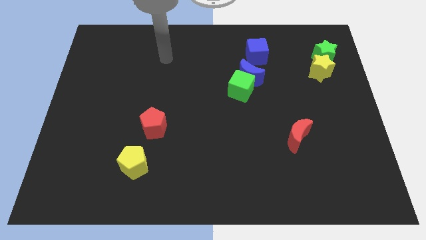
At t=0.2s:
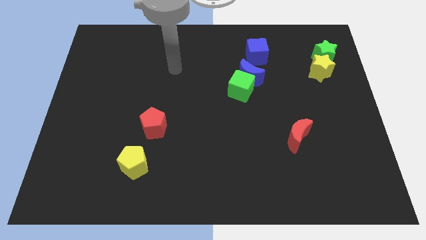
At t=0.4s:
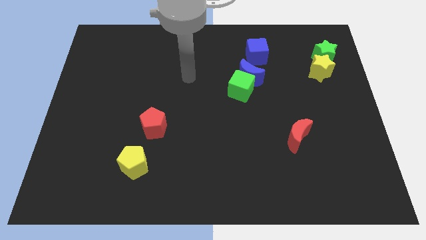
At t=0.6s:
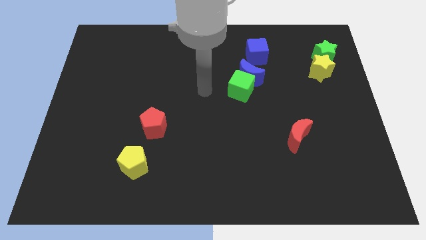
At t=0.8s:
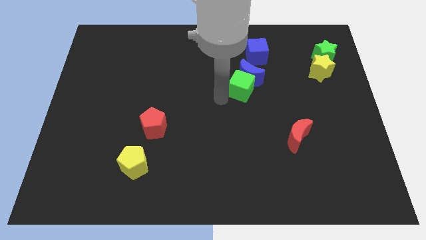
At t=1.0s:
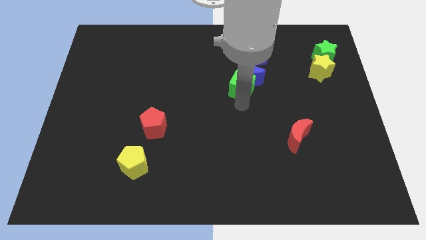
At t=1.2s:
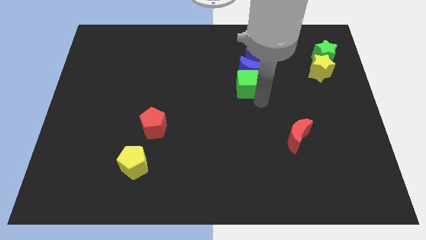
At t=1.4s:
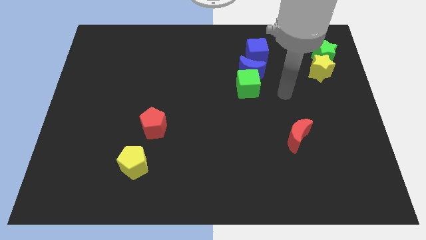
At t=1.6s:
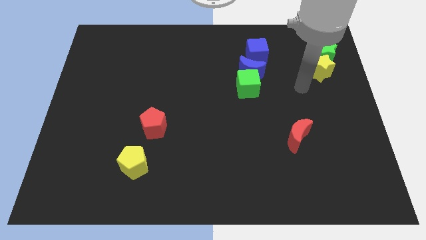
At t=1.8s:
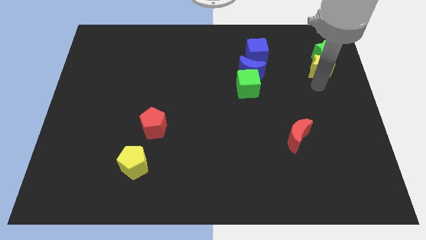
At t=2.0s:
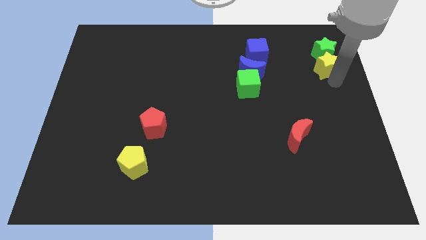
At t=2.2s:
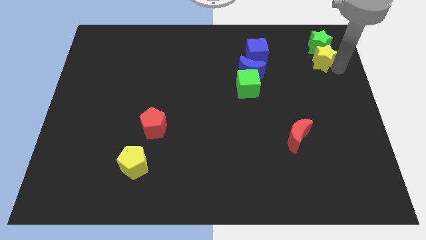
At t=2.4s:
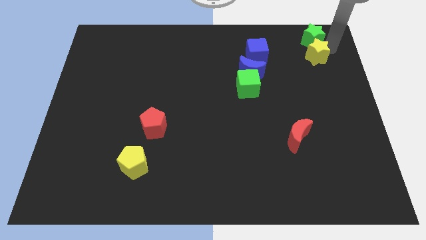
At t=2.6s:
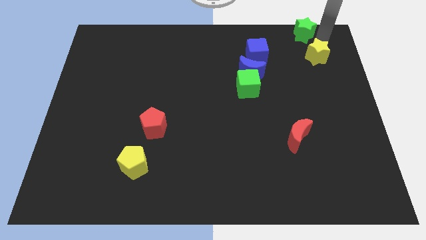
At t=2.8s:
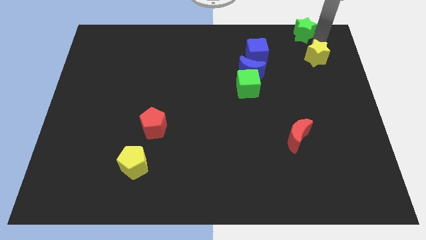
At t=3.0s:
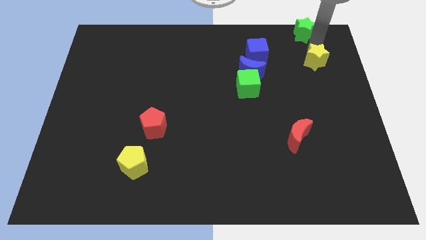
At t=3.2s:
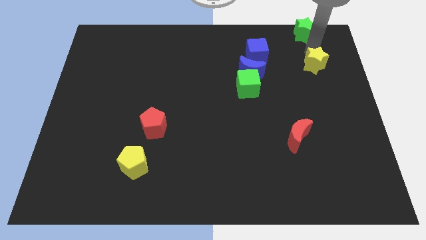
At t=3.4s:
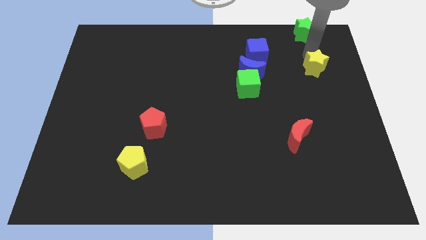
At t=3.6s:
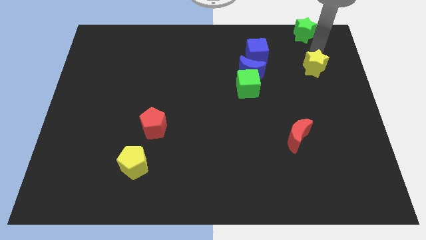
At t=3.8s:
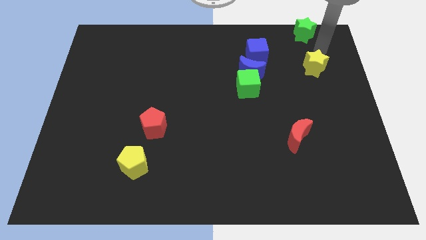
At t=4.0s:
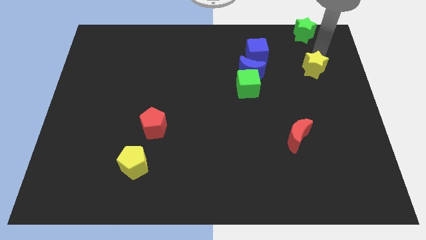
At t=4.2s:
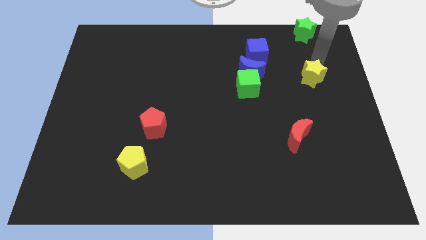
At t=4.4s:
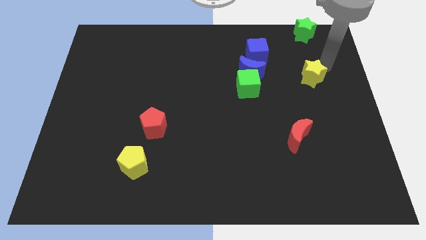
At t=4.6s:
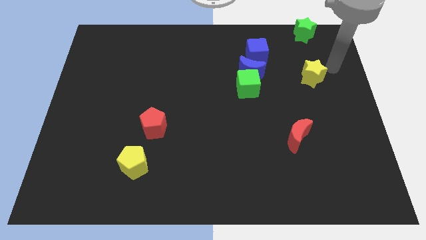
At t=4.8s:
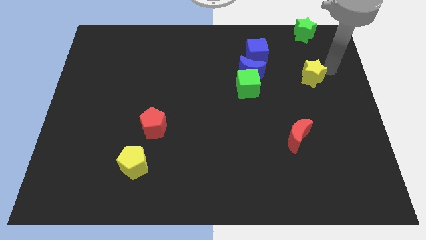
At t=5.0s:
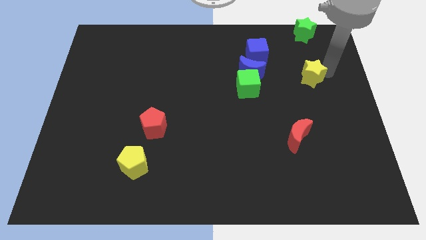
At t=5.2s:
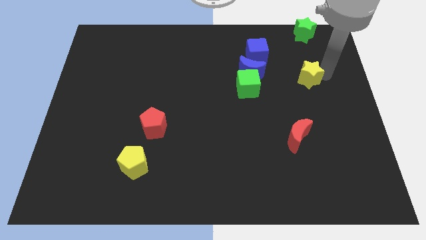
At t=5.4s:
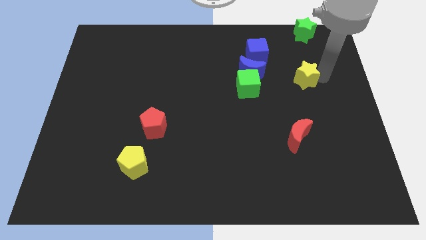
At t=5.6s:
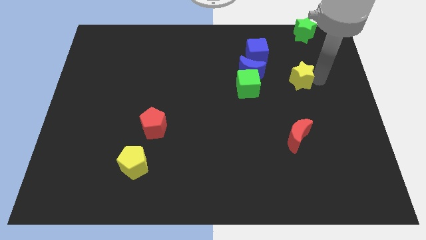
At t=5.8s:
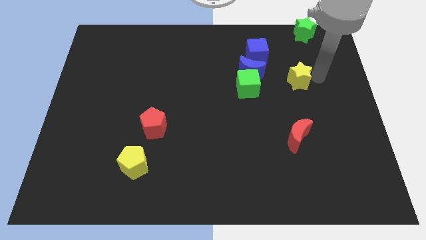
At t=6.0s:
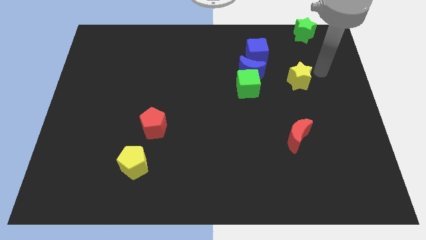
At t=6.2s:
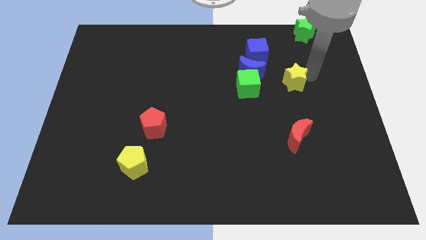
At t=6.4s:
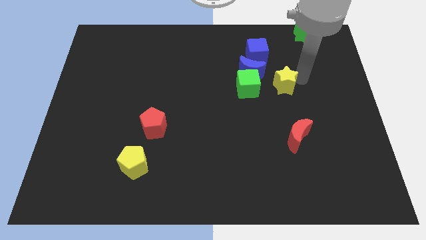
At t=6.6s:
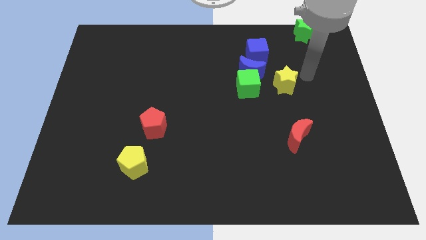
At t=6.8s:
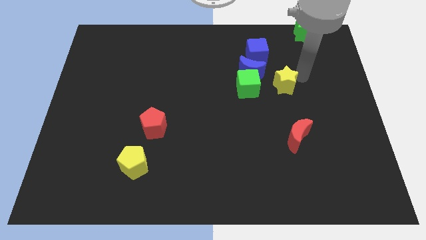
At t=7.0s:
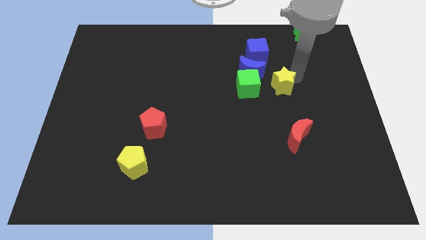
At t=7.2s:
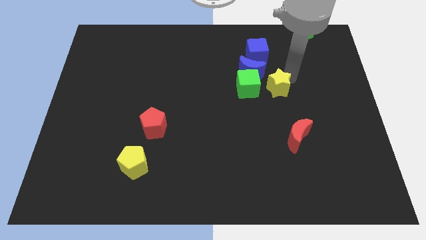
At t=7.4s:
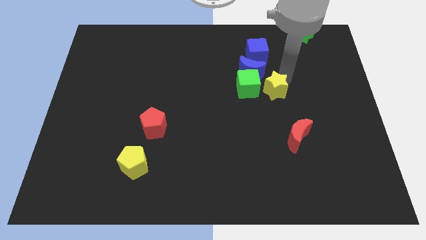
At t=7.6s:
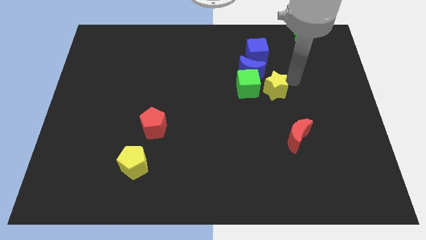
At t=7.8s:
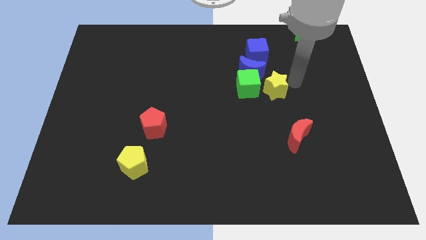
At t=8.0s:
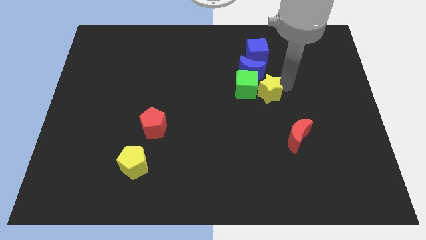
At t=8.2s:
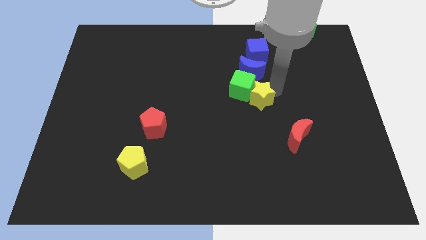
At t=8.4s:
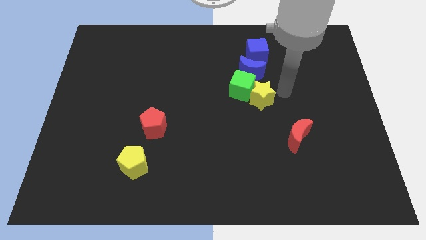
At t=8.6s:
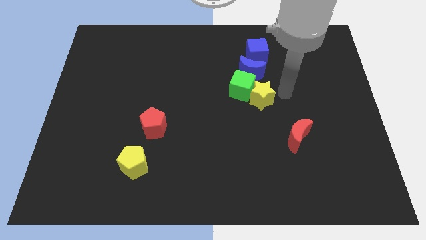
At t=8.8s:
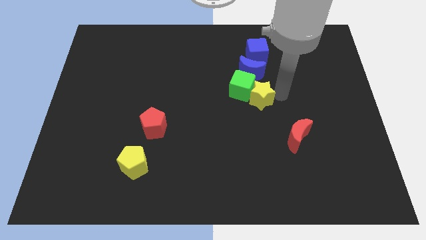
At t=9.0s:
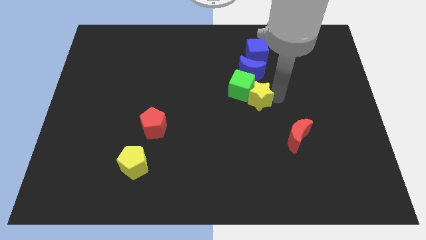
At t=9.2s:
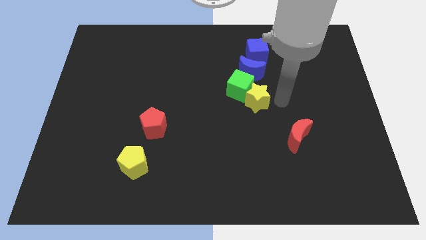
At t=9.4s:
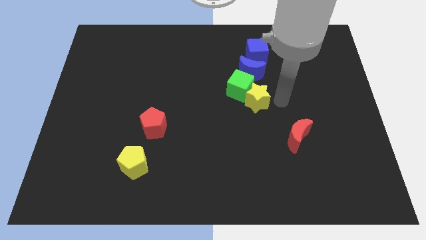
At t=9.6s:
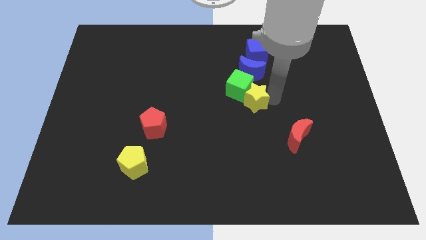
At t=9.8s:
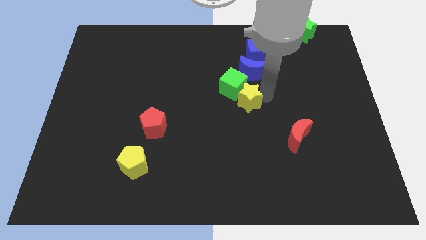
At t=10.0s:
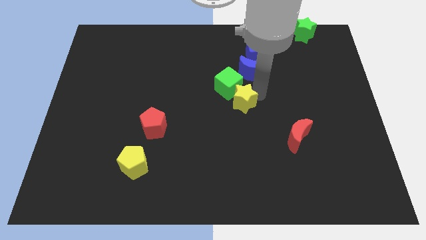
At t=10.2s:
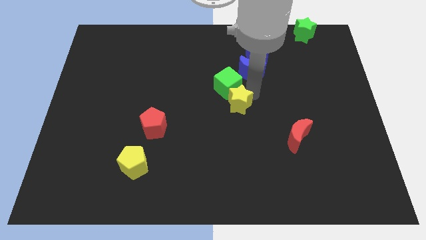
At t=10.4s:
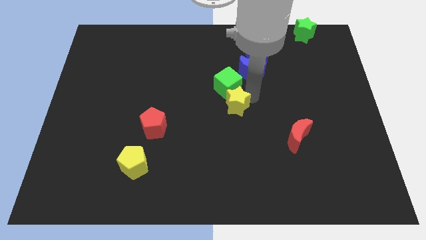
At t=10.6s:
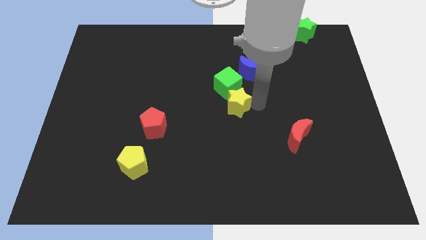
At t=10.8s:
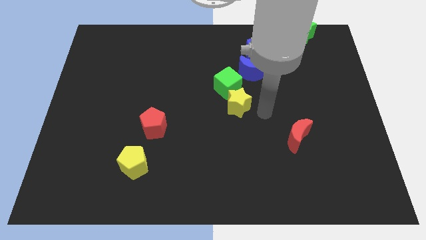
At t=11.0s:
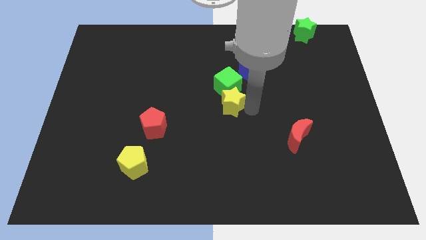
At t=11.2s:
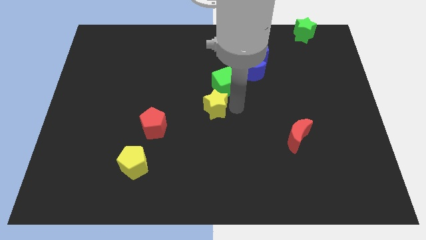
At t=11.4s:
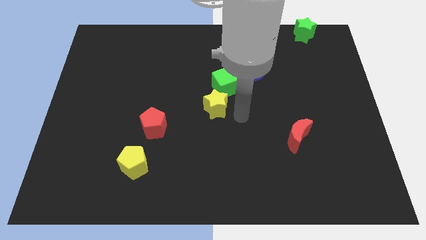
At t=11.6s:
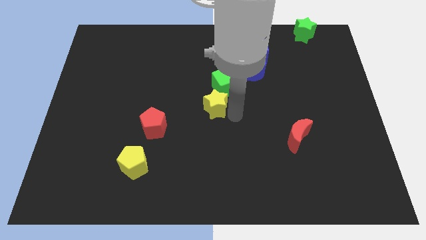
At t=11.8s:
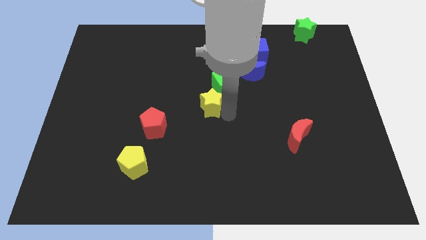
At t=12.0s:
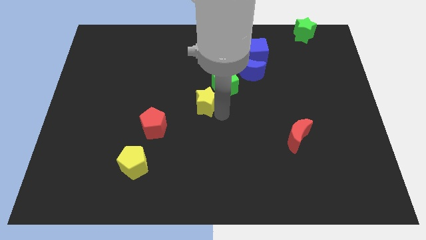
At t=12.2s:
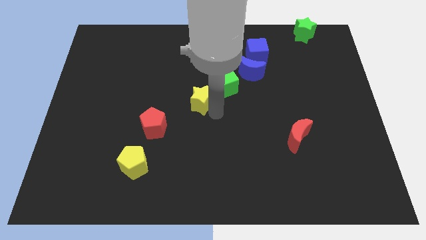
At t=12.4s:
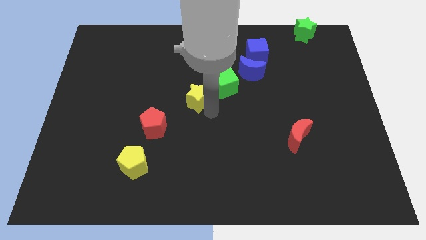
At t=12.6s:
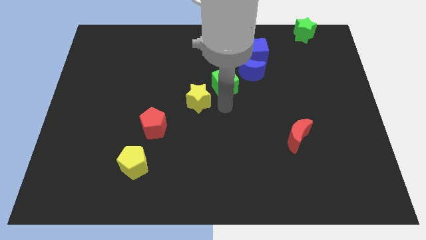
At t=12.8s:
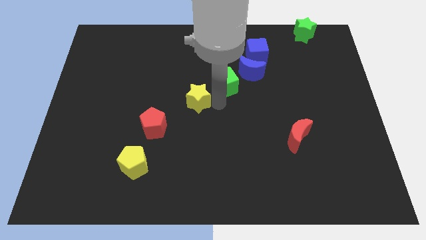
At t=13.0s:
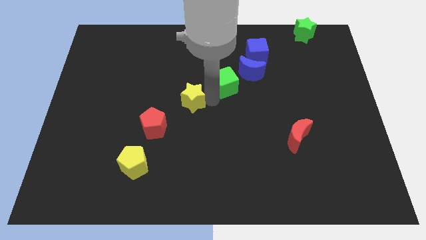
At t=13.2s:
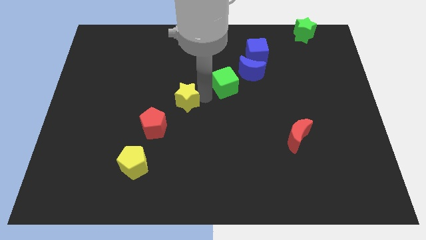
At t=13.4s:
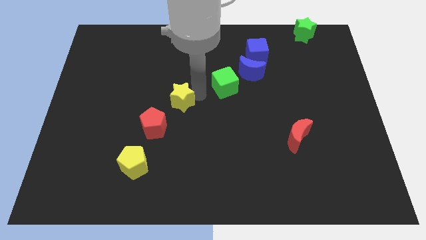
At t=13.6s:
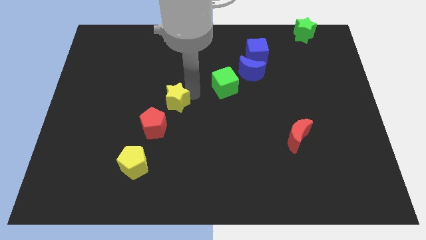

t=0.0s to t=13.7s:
put the yellow star above the red pentagon

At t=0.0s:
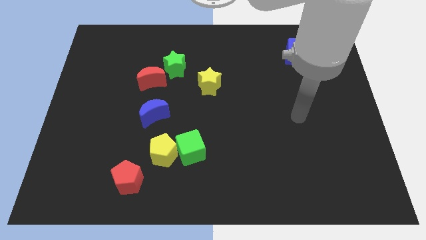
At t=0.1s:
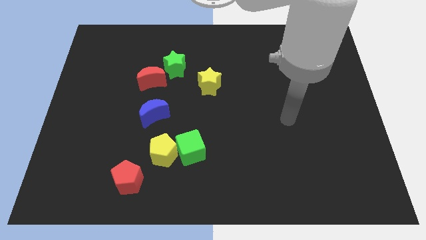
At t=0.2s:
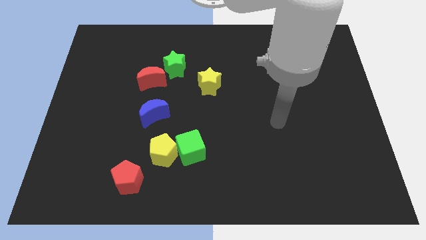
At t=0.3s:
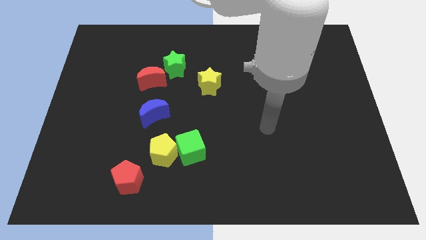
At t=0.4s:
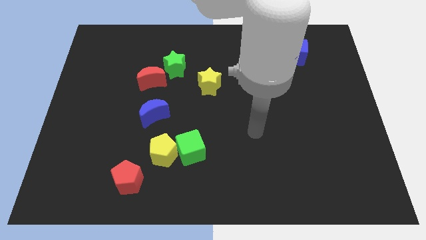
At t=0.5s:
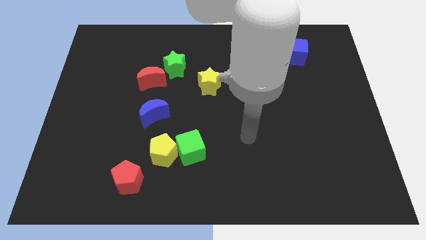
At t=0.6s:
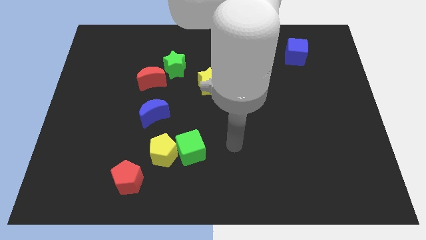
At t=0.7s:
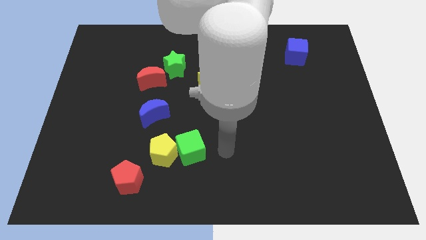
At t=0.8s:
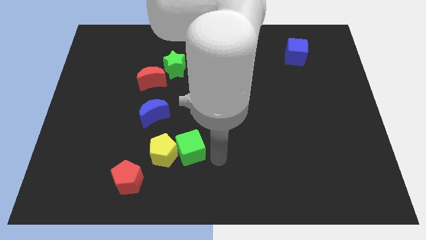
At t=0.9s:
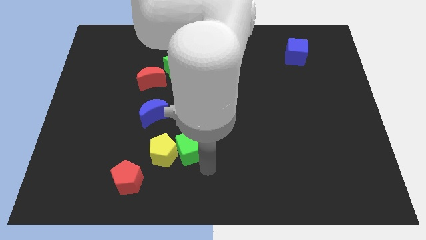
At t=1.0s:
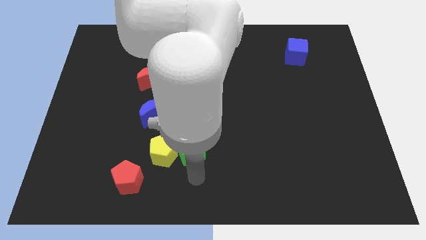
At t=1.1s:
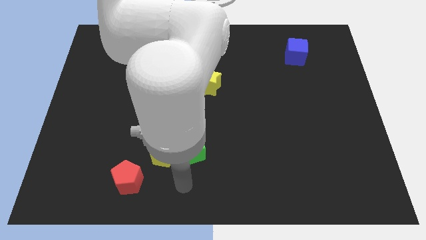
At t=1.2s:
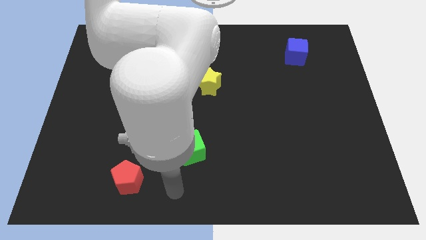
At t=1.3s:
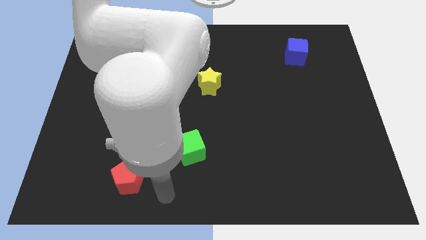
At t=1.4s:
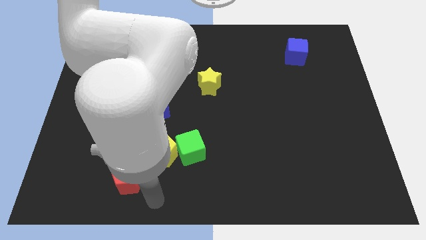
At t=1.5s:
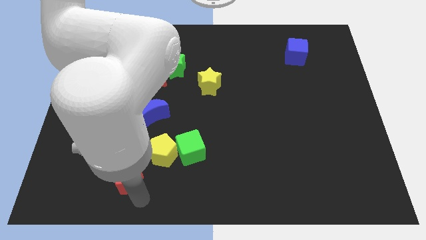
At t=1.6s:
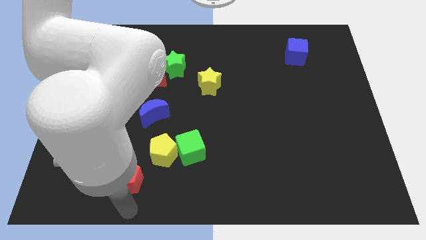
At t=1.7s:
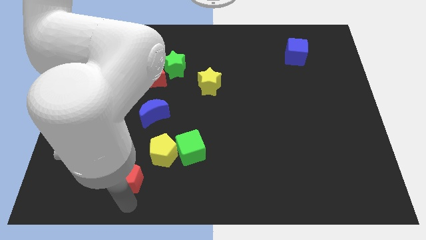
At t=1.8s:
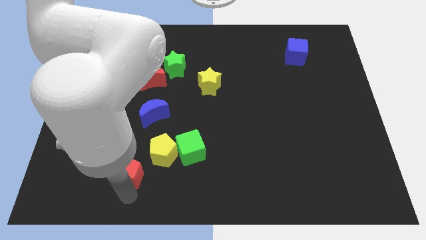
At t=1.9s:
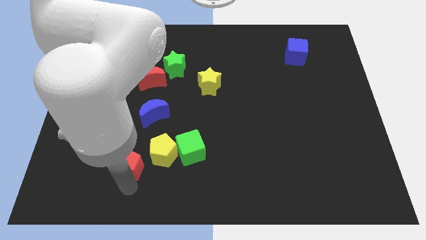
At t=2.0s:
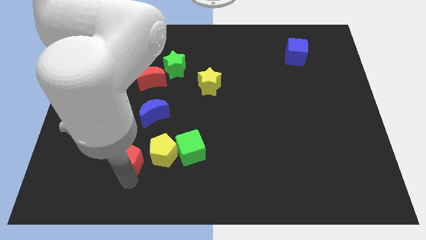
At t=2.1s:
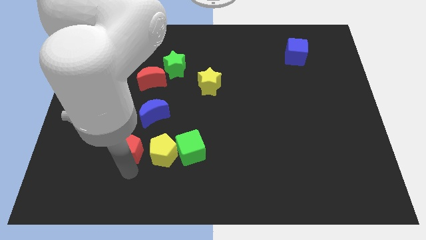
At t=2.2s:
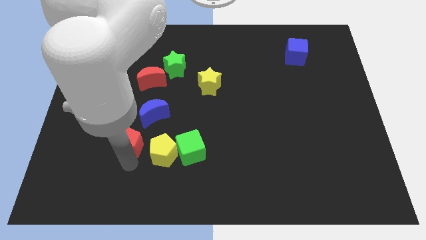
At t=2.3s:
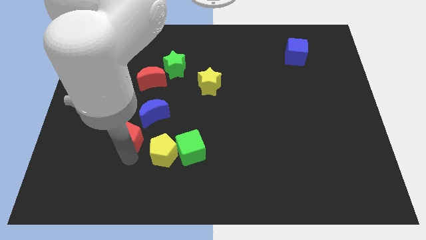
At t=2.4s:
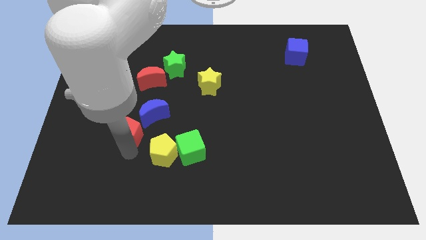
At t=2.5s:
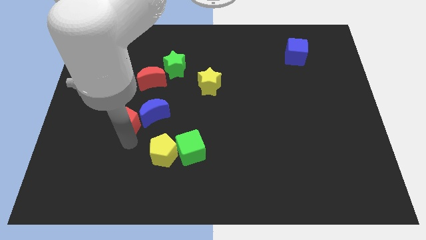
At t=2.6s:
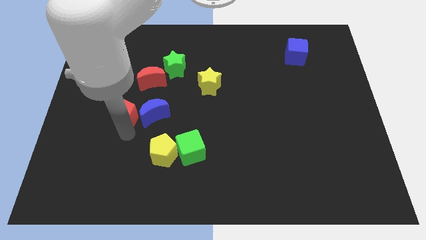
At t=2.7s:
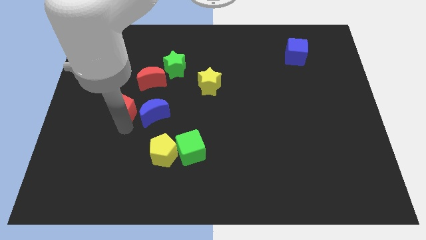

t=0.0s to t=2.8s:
move the red pentagon diagonally up and to the left of the blue moon
